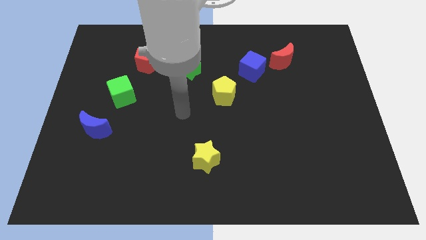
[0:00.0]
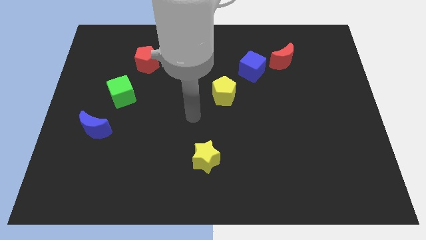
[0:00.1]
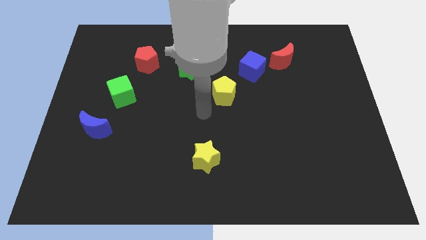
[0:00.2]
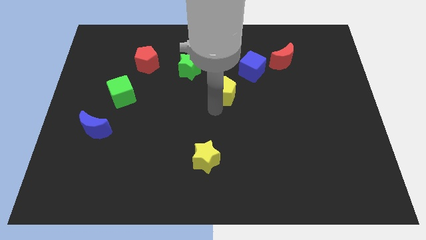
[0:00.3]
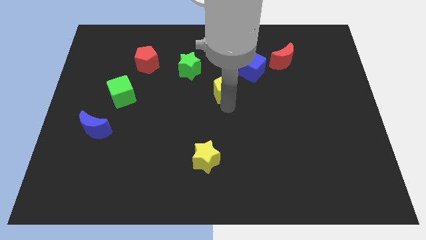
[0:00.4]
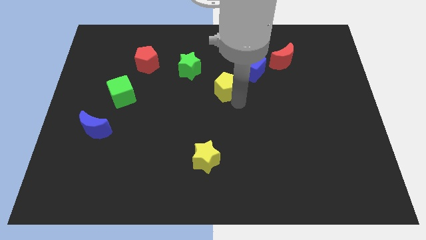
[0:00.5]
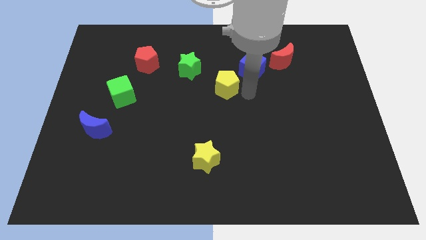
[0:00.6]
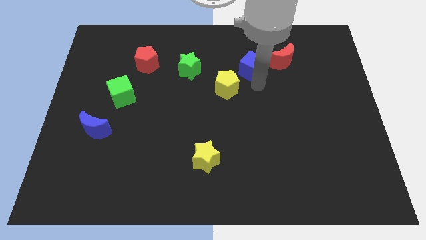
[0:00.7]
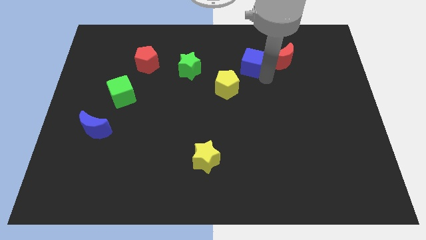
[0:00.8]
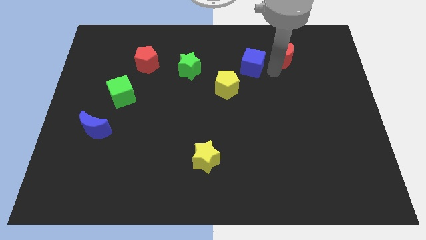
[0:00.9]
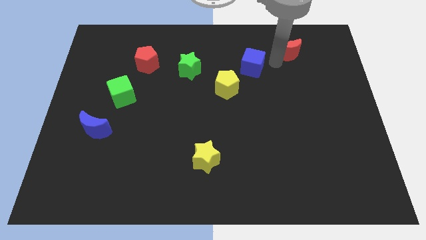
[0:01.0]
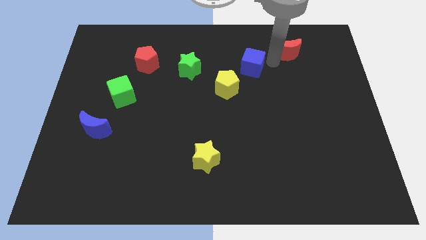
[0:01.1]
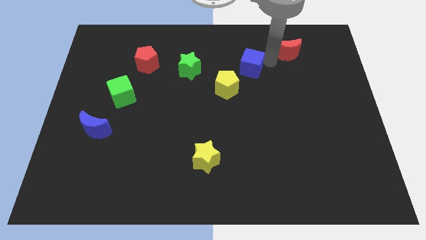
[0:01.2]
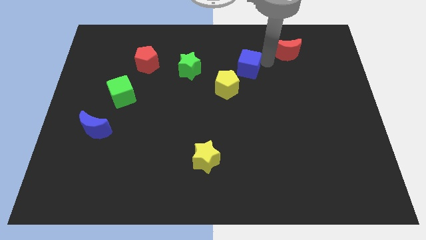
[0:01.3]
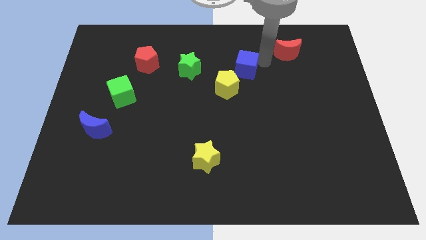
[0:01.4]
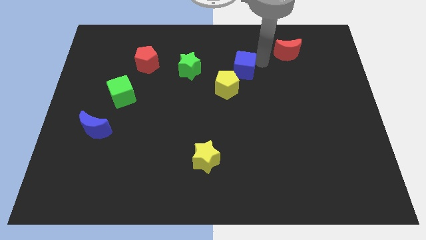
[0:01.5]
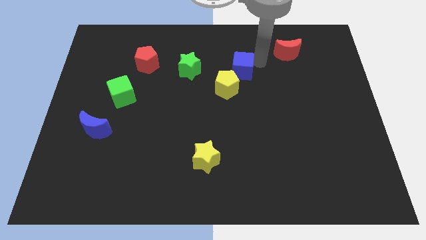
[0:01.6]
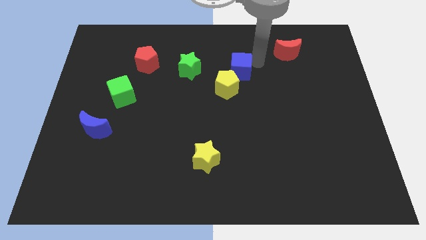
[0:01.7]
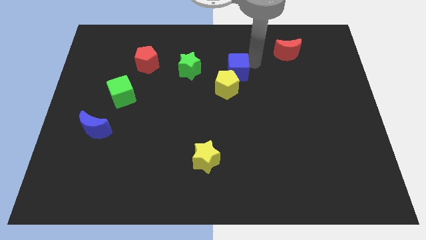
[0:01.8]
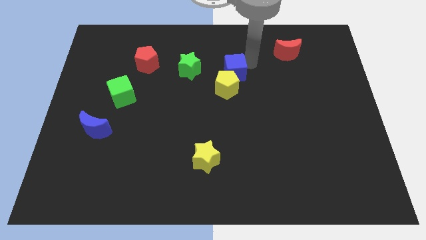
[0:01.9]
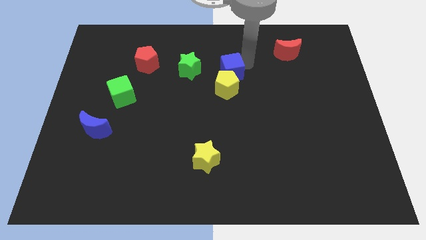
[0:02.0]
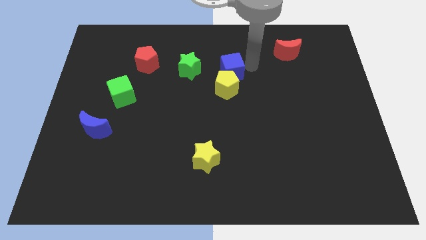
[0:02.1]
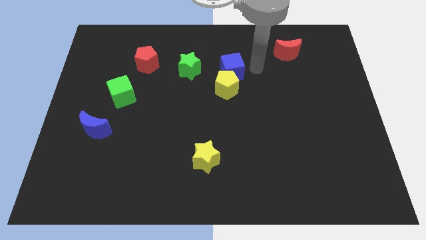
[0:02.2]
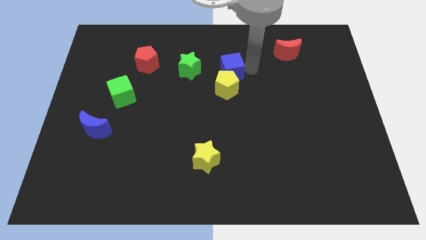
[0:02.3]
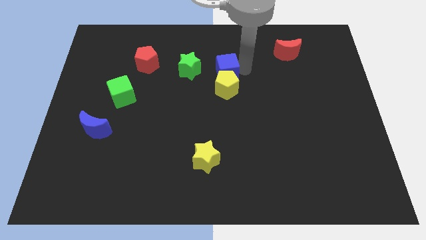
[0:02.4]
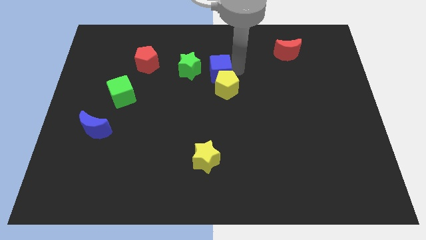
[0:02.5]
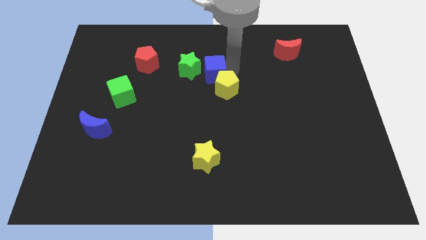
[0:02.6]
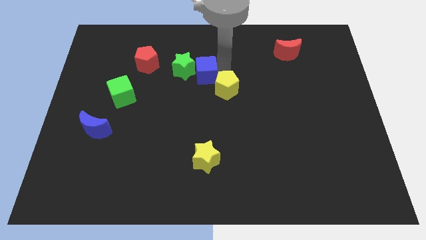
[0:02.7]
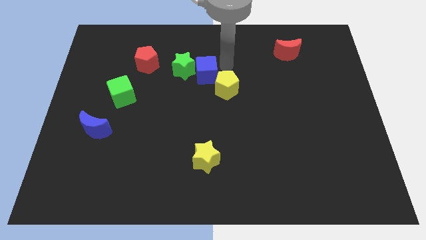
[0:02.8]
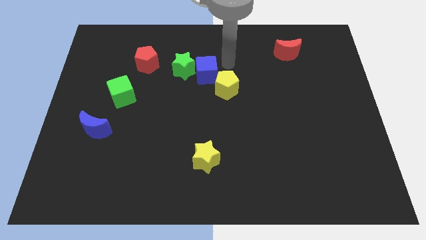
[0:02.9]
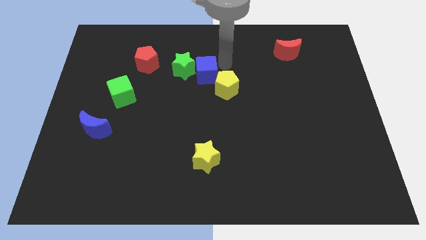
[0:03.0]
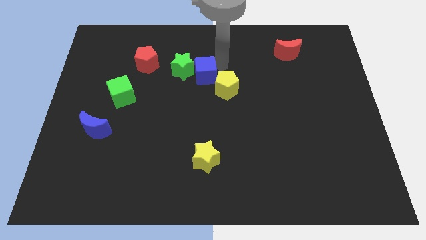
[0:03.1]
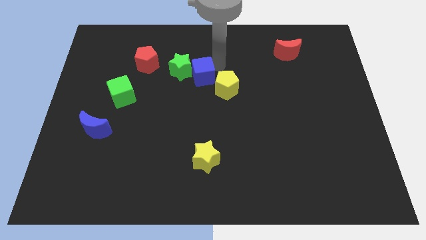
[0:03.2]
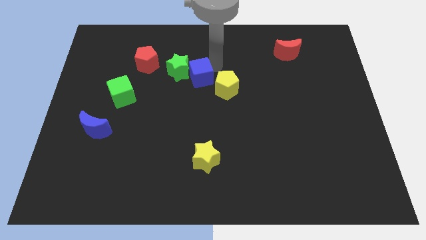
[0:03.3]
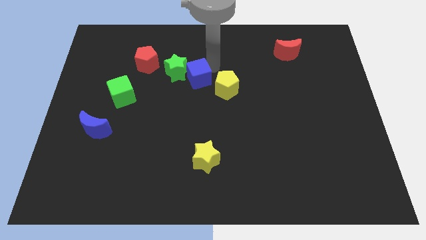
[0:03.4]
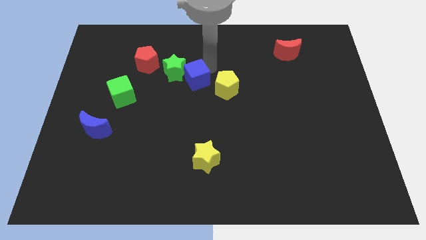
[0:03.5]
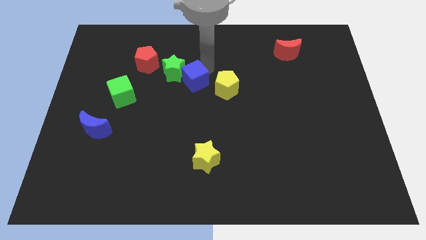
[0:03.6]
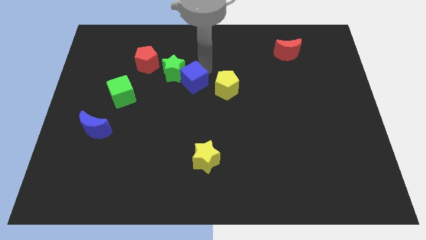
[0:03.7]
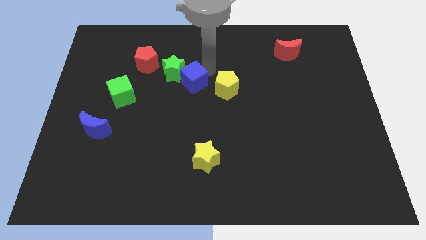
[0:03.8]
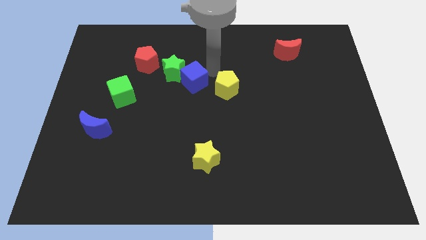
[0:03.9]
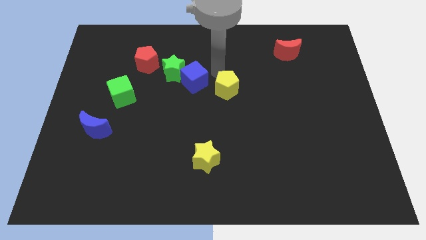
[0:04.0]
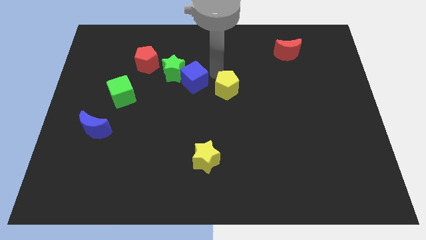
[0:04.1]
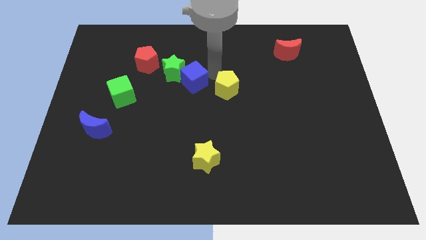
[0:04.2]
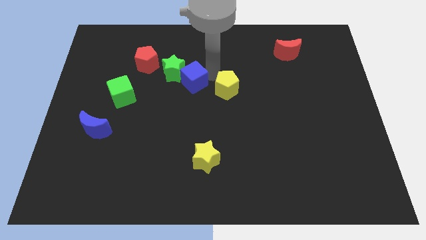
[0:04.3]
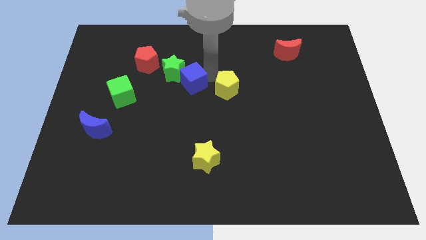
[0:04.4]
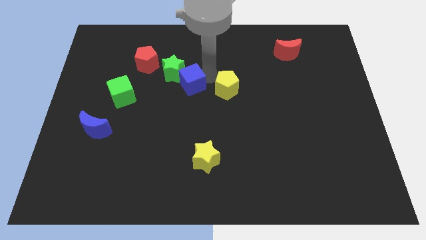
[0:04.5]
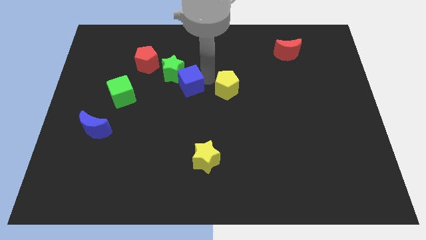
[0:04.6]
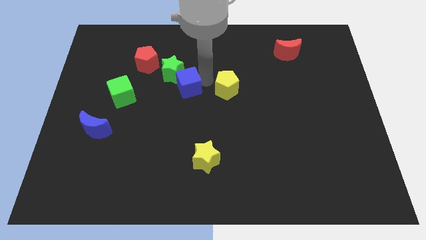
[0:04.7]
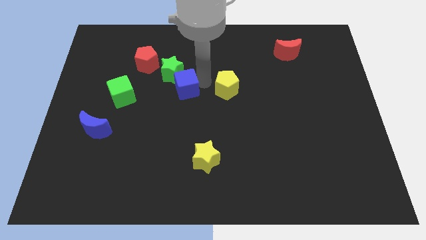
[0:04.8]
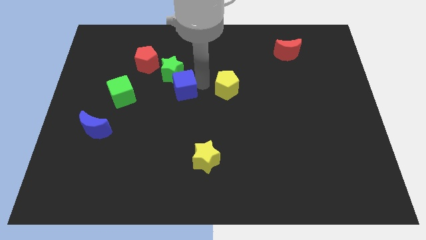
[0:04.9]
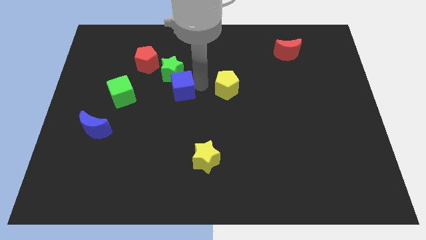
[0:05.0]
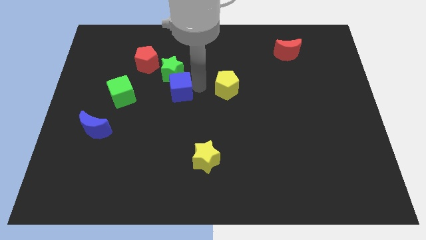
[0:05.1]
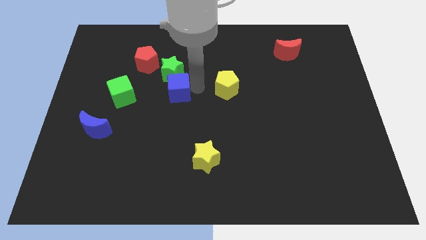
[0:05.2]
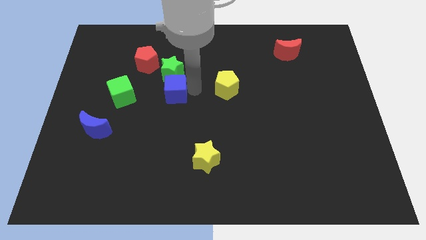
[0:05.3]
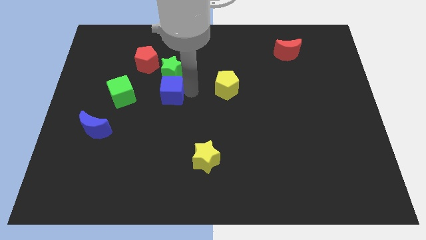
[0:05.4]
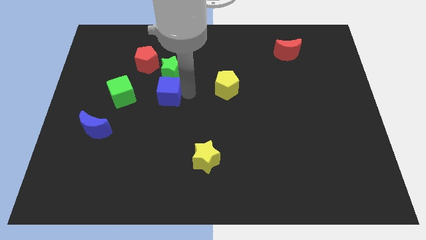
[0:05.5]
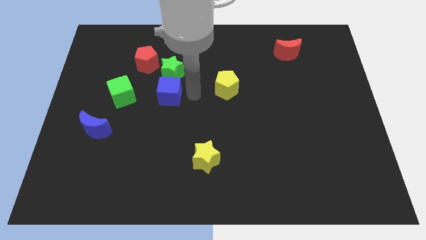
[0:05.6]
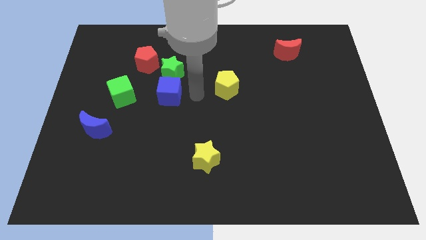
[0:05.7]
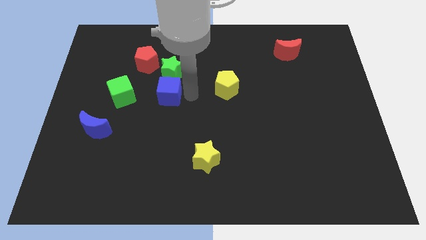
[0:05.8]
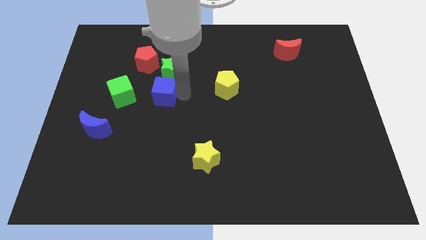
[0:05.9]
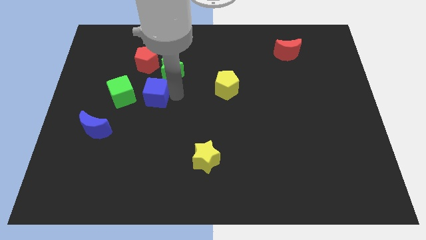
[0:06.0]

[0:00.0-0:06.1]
slide the blue cube to the bottom side of the red pentagon

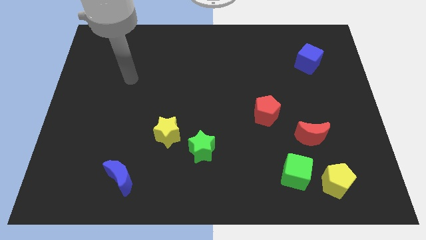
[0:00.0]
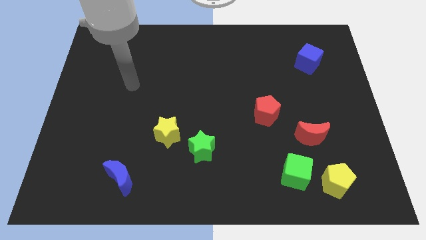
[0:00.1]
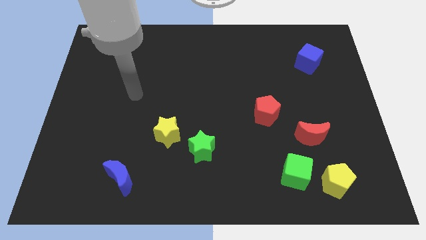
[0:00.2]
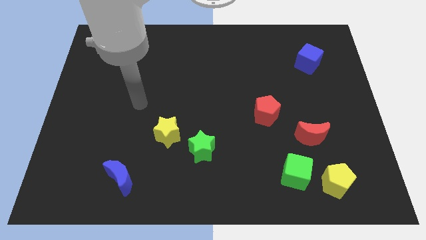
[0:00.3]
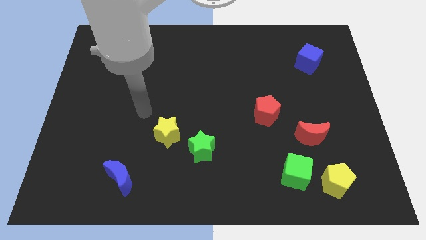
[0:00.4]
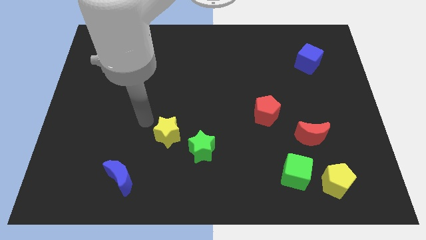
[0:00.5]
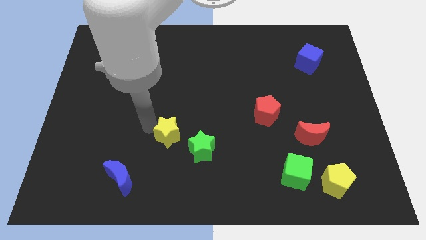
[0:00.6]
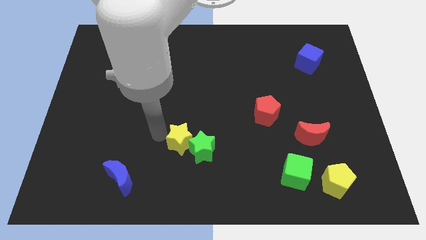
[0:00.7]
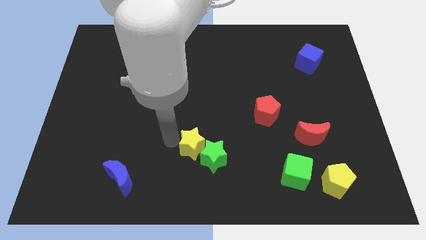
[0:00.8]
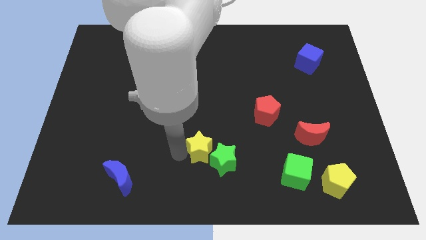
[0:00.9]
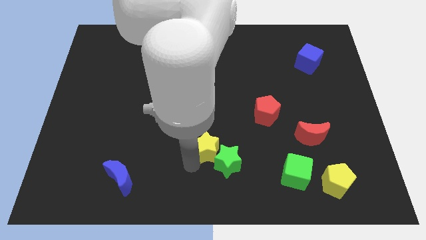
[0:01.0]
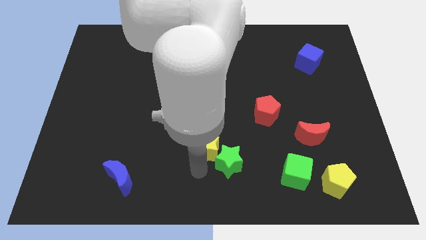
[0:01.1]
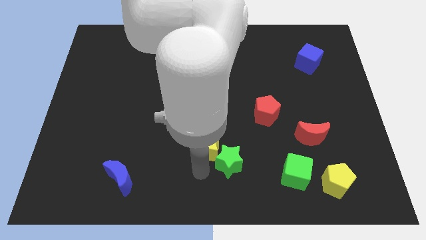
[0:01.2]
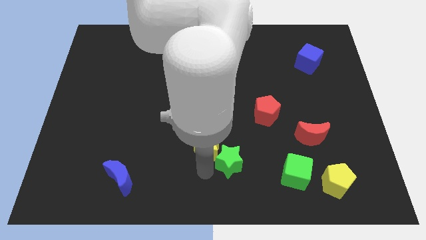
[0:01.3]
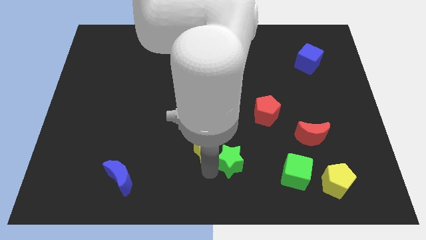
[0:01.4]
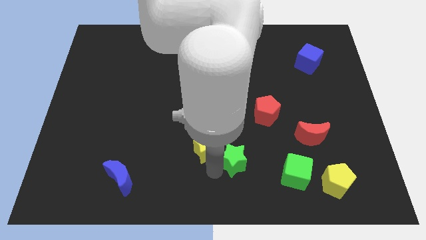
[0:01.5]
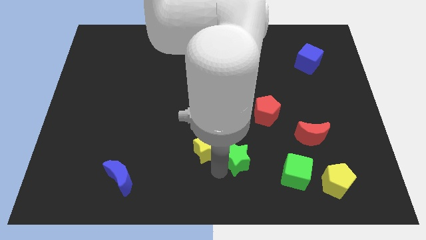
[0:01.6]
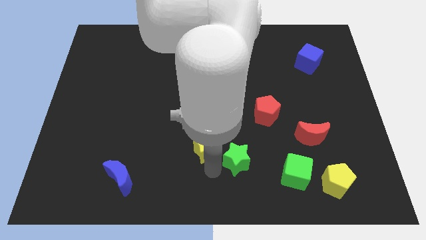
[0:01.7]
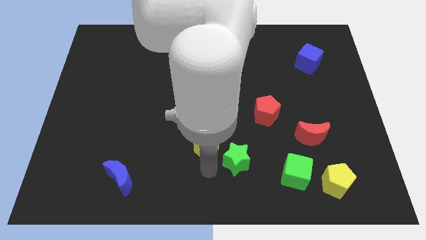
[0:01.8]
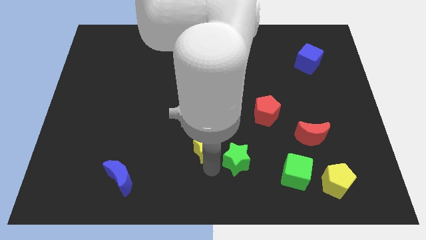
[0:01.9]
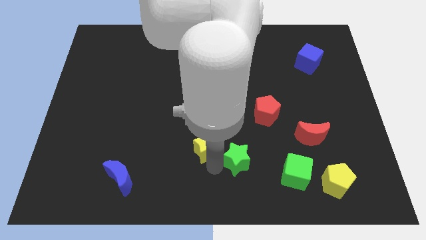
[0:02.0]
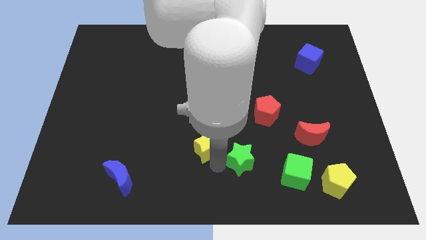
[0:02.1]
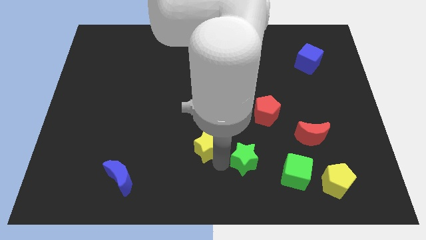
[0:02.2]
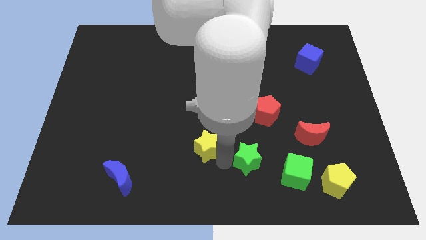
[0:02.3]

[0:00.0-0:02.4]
slide the green star to the top left side of the green cube
